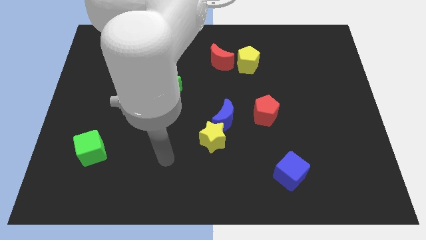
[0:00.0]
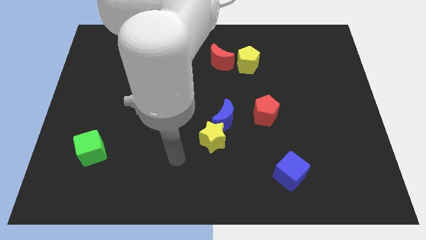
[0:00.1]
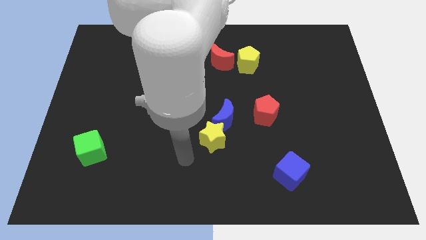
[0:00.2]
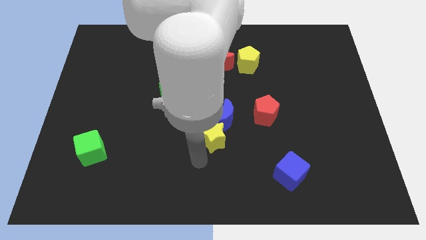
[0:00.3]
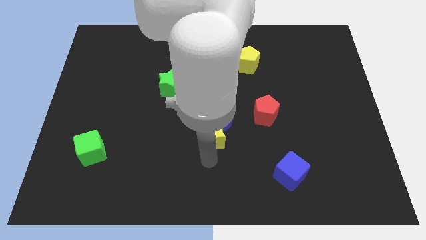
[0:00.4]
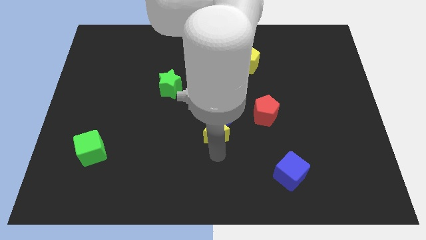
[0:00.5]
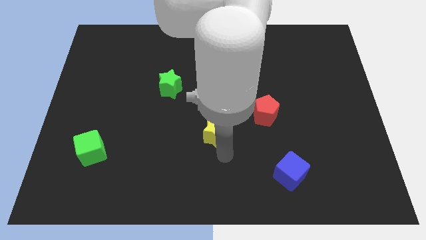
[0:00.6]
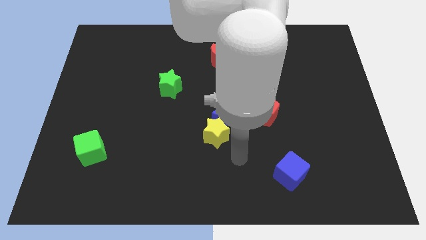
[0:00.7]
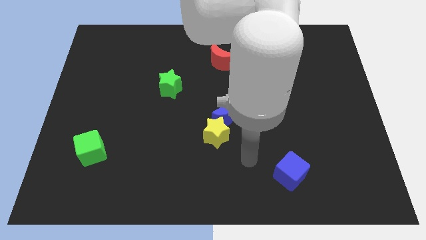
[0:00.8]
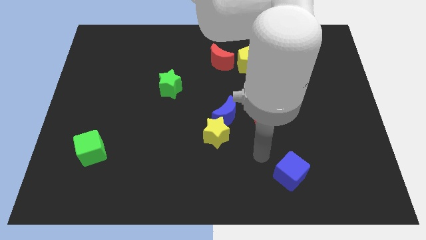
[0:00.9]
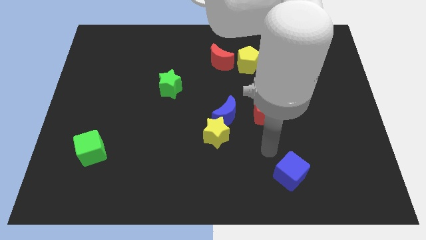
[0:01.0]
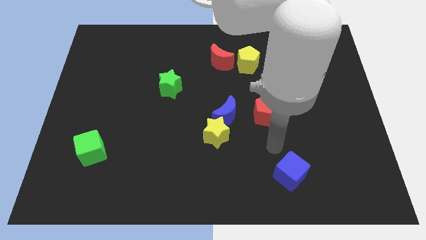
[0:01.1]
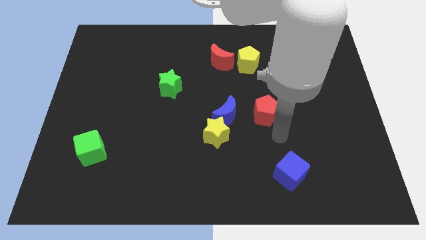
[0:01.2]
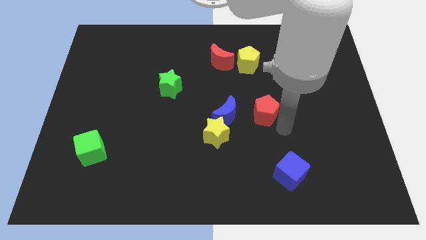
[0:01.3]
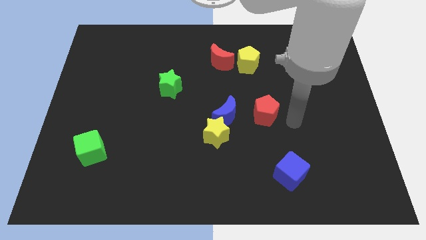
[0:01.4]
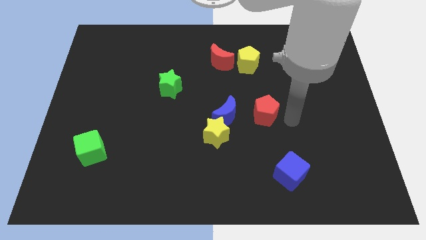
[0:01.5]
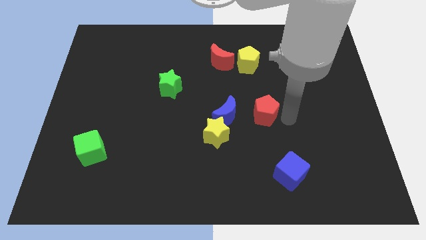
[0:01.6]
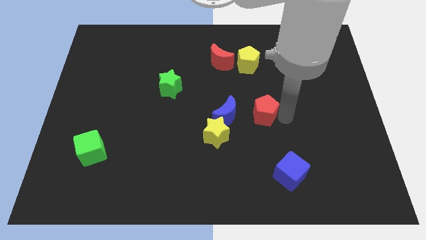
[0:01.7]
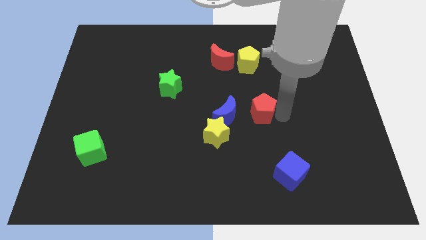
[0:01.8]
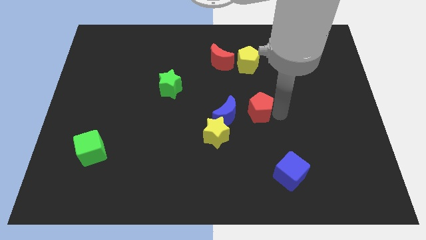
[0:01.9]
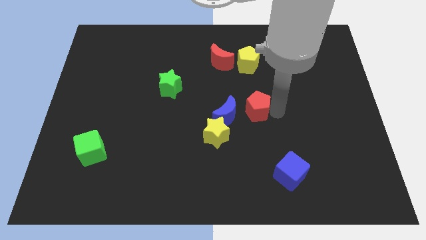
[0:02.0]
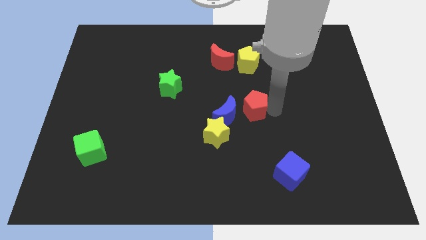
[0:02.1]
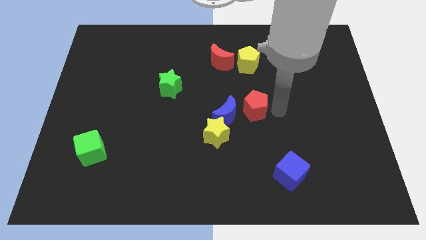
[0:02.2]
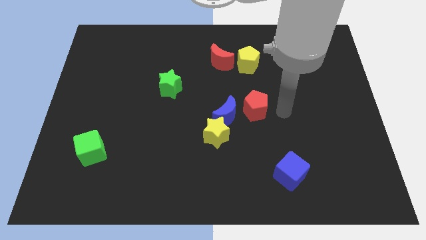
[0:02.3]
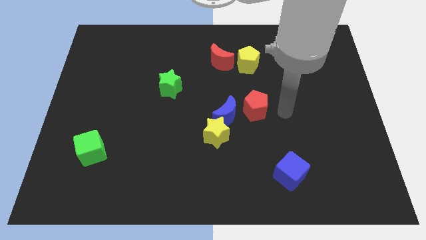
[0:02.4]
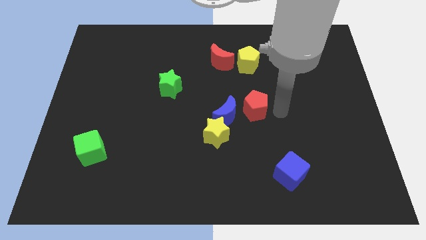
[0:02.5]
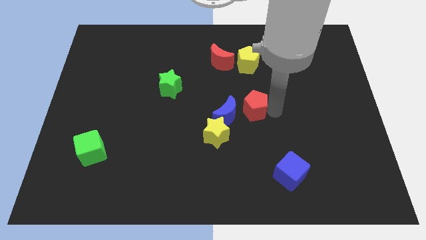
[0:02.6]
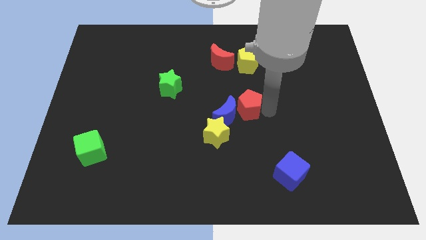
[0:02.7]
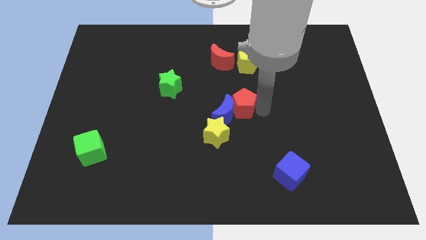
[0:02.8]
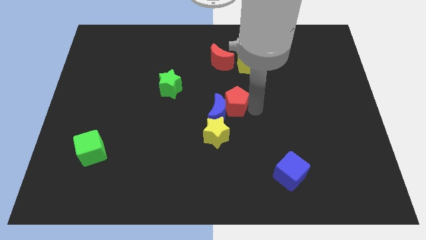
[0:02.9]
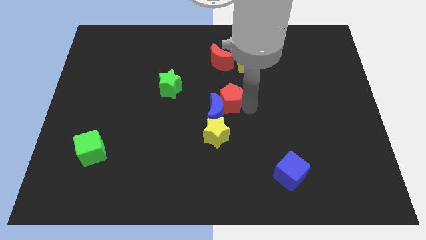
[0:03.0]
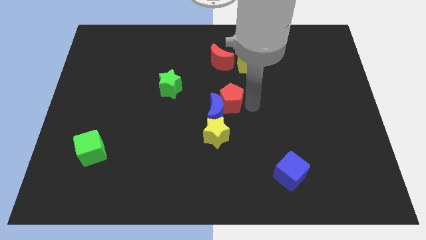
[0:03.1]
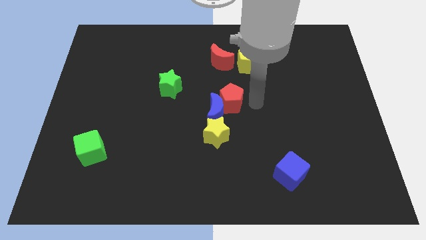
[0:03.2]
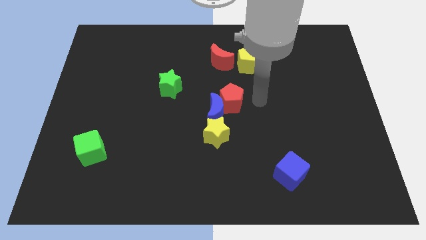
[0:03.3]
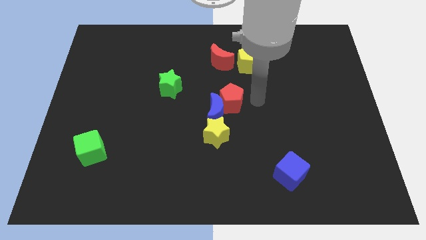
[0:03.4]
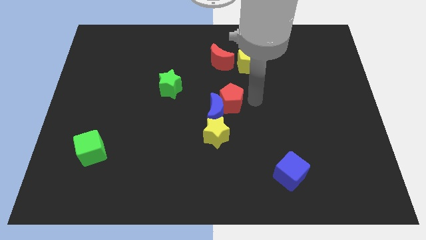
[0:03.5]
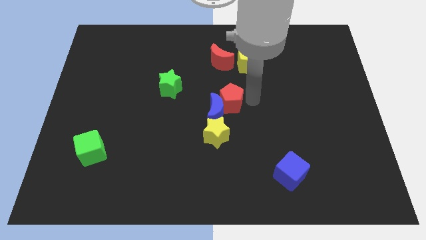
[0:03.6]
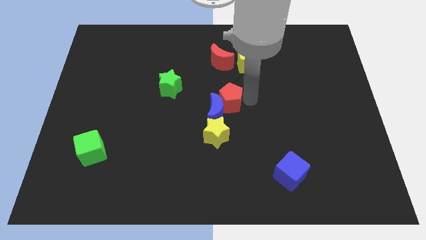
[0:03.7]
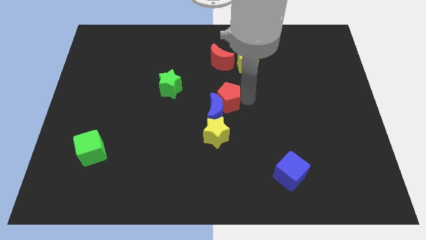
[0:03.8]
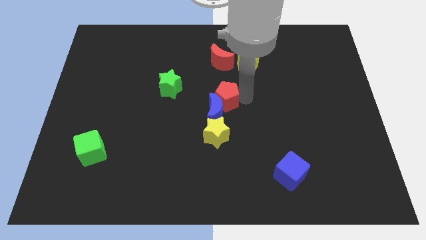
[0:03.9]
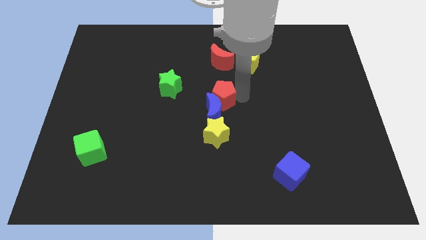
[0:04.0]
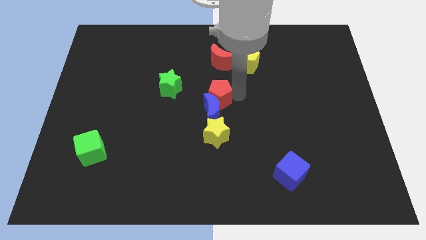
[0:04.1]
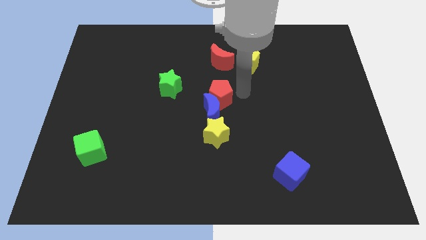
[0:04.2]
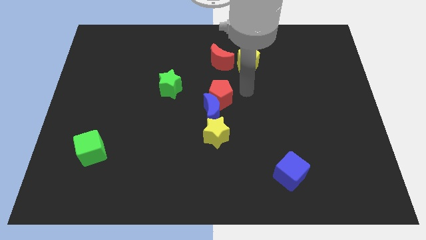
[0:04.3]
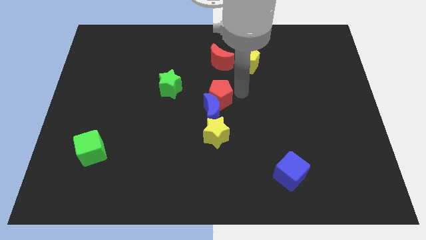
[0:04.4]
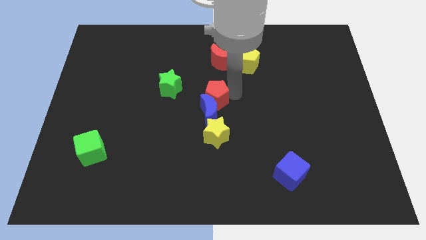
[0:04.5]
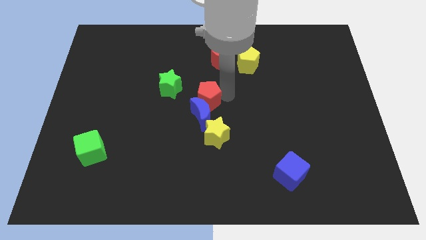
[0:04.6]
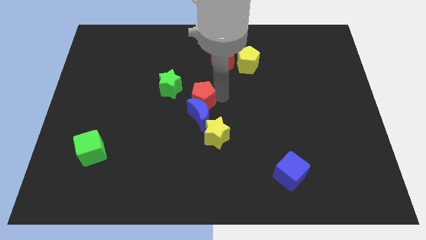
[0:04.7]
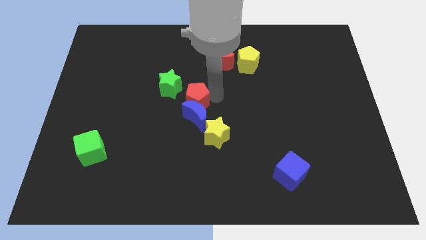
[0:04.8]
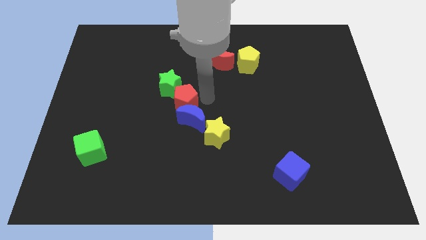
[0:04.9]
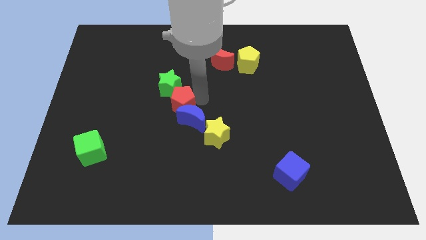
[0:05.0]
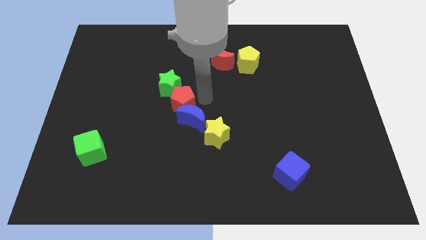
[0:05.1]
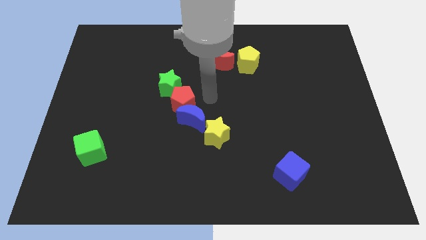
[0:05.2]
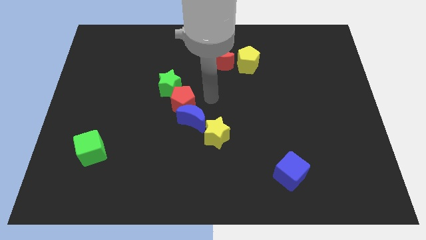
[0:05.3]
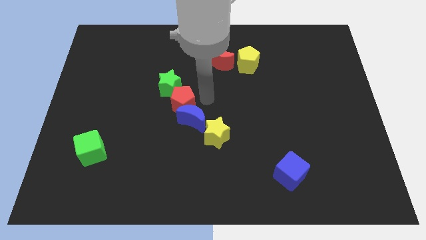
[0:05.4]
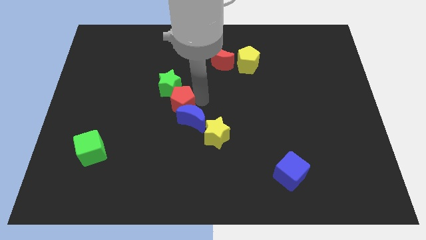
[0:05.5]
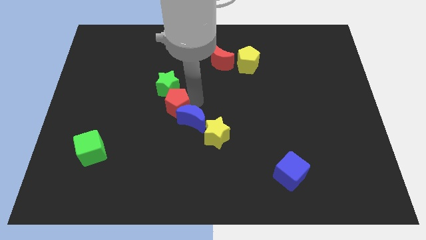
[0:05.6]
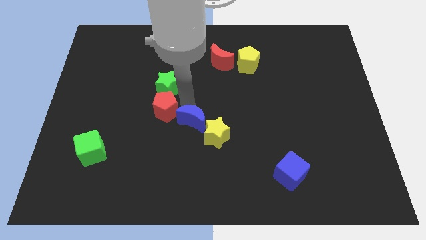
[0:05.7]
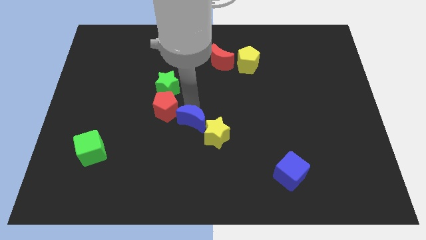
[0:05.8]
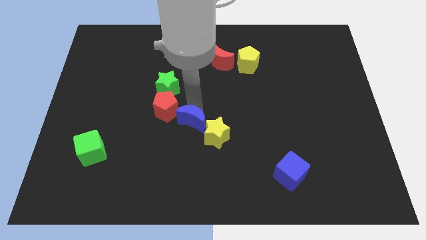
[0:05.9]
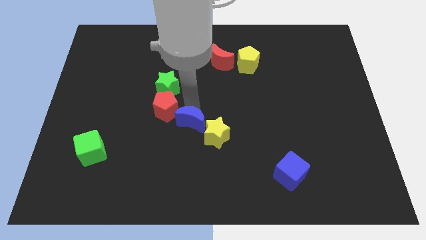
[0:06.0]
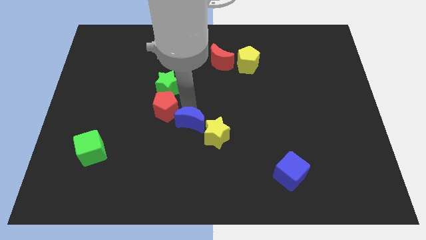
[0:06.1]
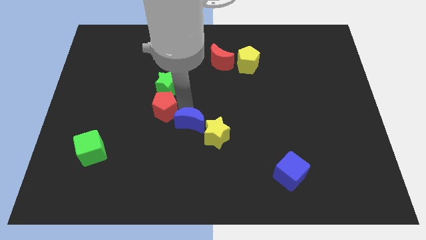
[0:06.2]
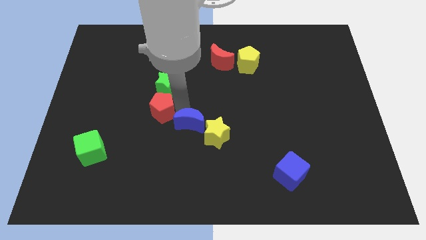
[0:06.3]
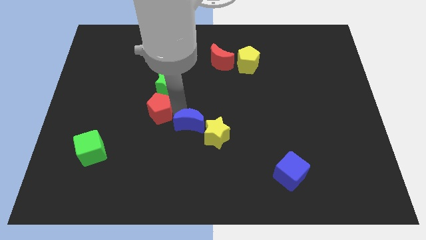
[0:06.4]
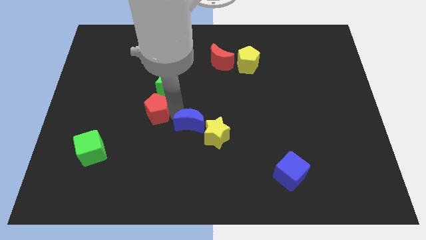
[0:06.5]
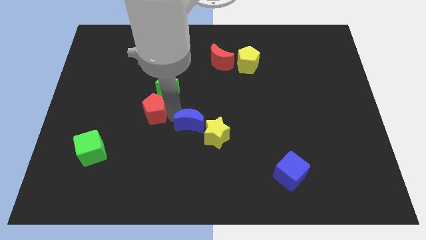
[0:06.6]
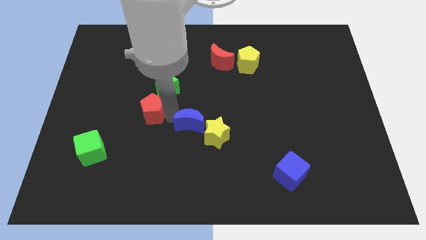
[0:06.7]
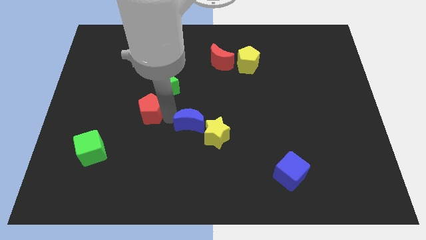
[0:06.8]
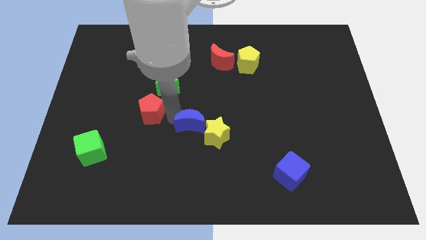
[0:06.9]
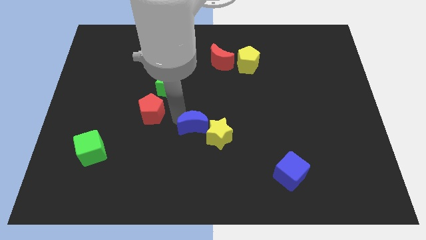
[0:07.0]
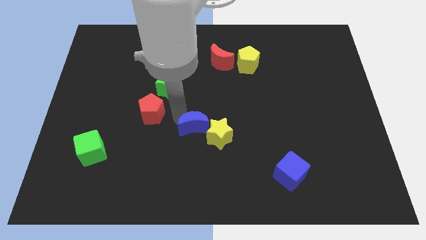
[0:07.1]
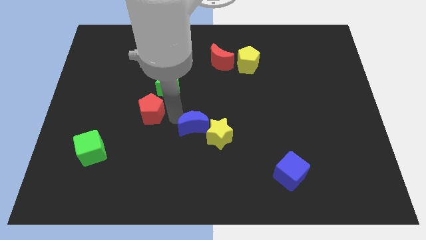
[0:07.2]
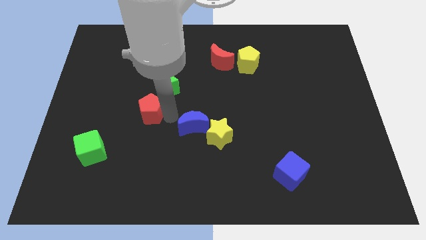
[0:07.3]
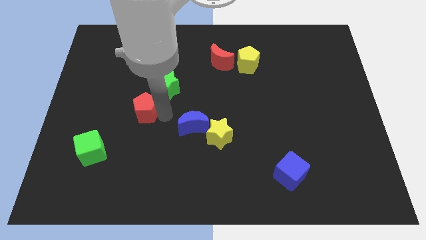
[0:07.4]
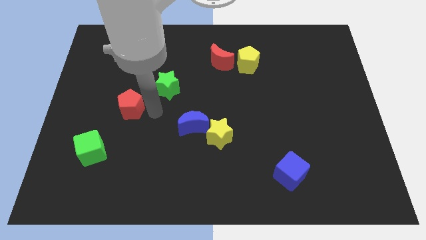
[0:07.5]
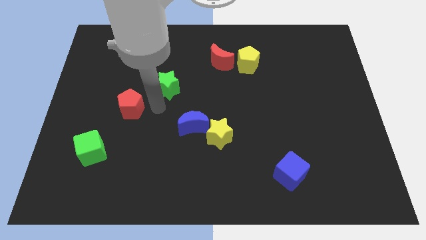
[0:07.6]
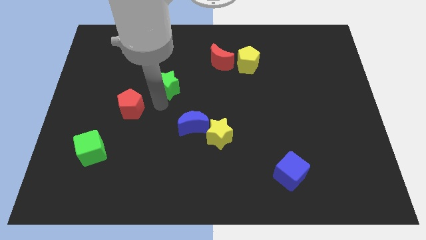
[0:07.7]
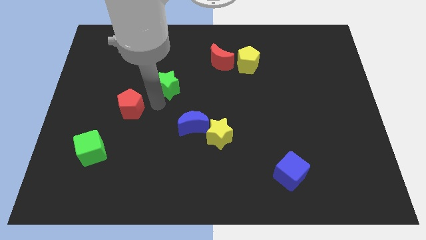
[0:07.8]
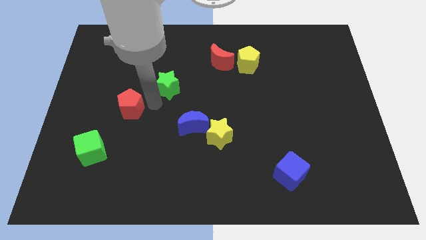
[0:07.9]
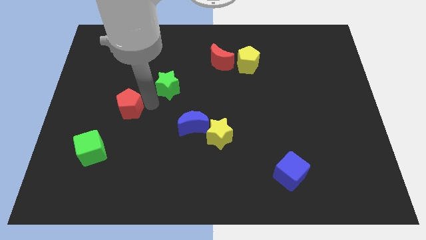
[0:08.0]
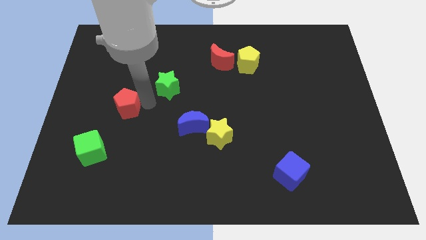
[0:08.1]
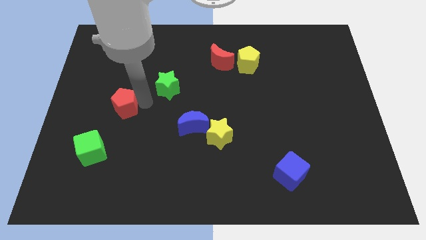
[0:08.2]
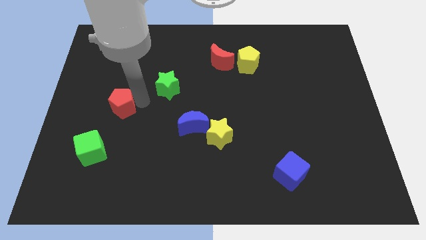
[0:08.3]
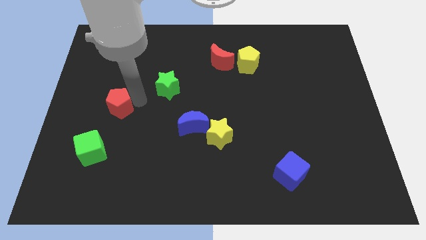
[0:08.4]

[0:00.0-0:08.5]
slide the red pentagon above the green cube

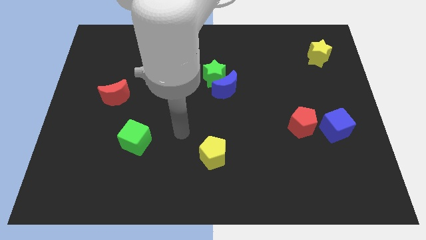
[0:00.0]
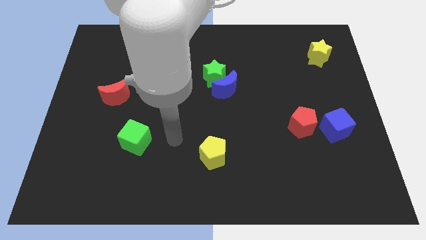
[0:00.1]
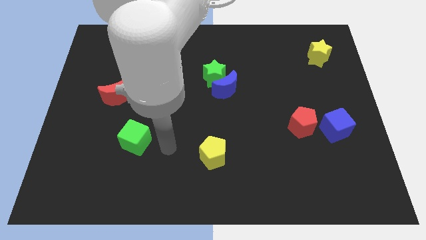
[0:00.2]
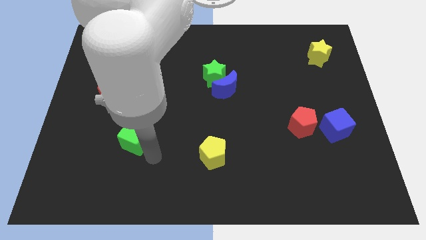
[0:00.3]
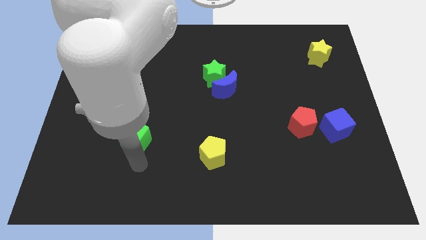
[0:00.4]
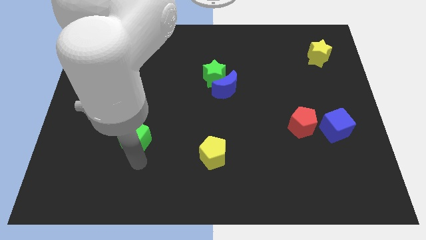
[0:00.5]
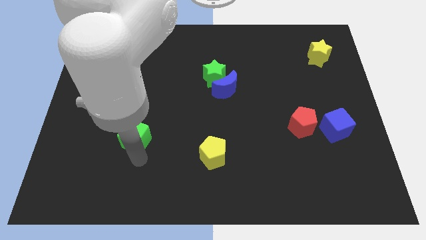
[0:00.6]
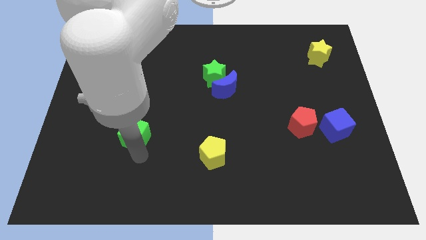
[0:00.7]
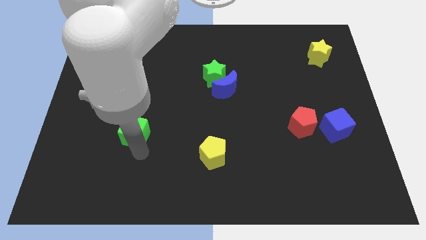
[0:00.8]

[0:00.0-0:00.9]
push the green cube to the bottom right side of the red moon
